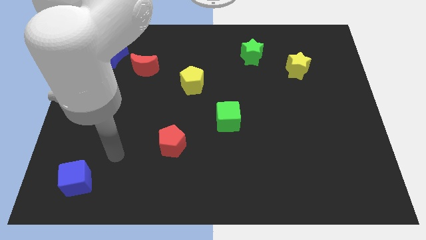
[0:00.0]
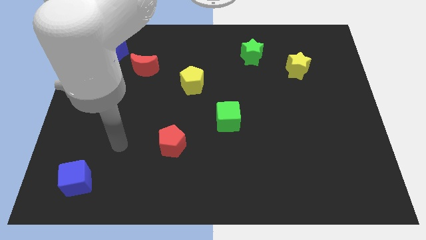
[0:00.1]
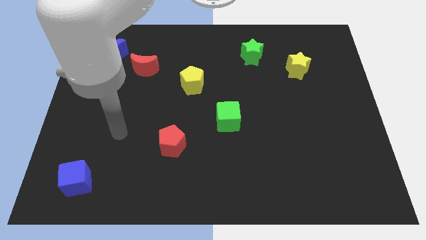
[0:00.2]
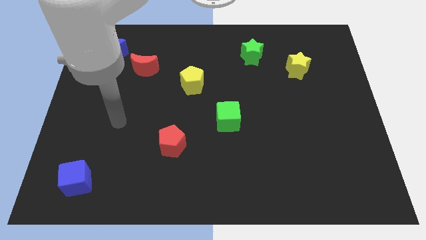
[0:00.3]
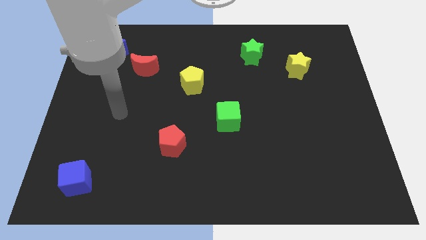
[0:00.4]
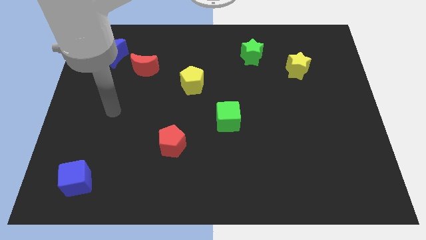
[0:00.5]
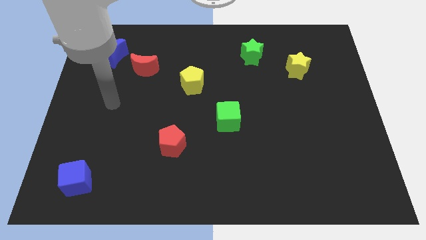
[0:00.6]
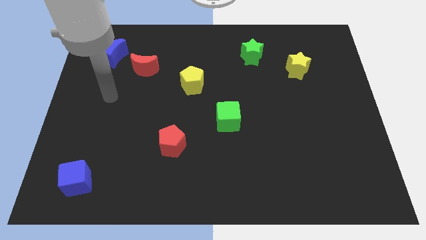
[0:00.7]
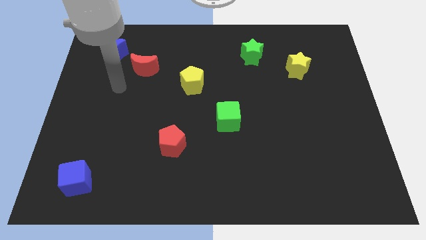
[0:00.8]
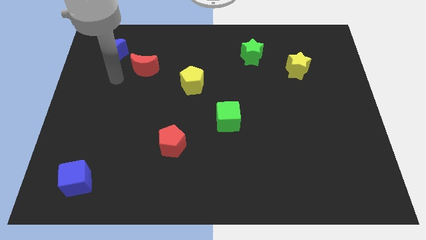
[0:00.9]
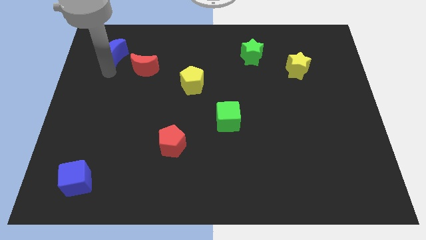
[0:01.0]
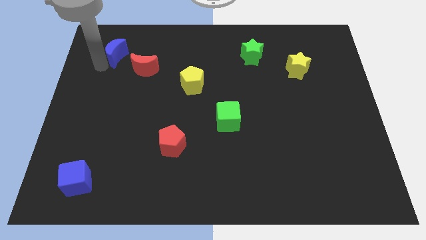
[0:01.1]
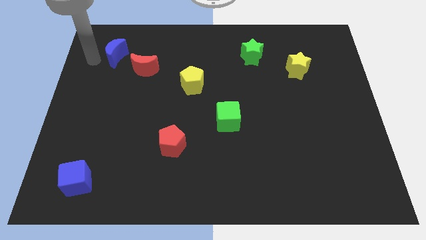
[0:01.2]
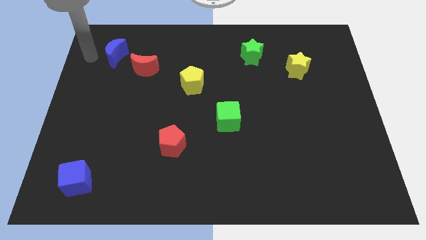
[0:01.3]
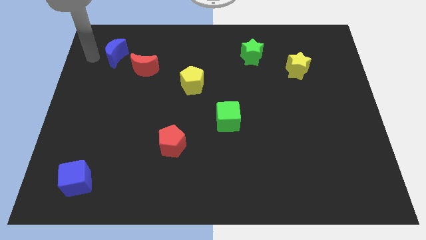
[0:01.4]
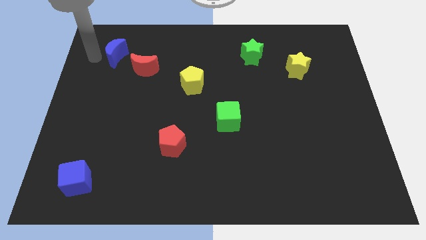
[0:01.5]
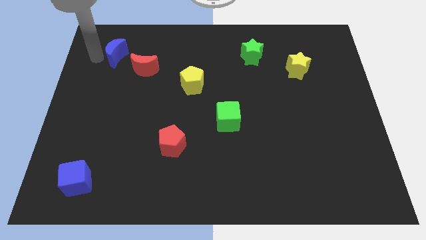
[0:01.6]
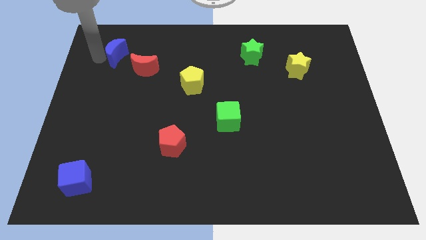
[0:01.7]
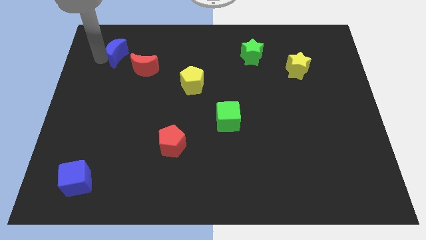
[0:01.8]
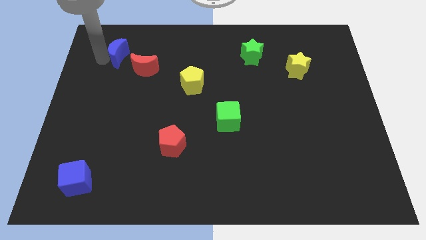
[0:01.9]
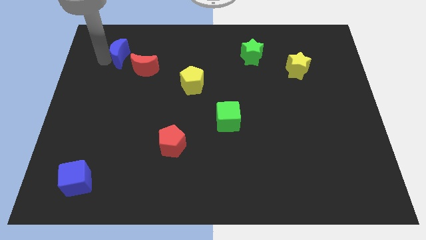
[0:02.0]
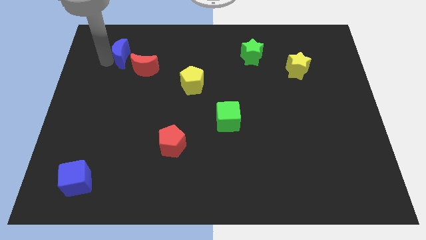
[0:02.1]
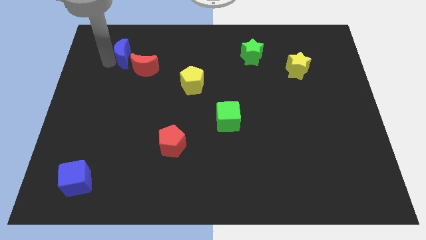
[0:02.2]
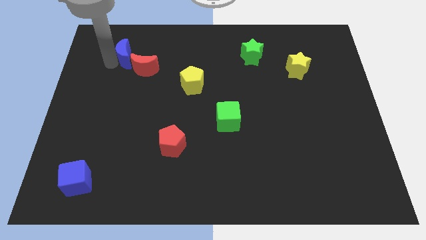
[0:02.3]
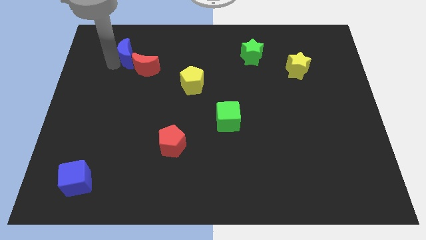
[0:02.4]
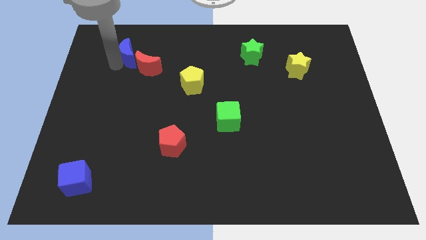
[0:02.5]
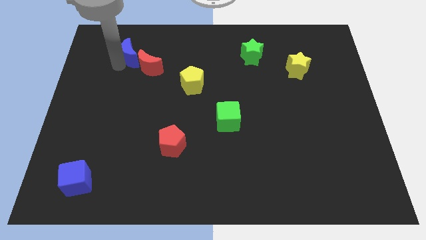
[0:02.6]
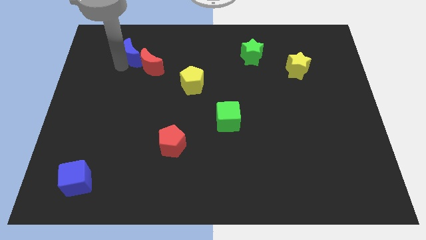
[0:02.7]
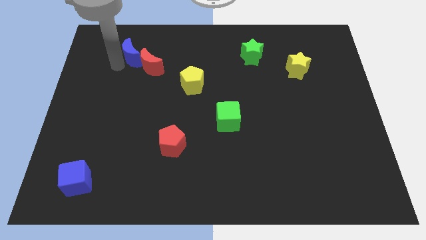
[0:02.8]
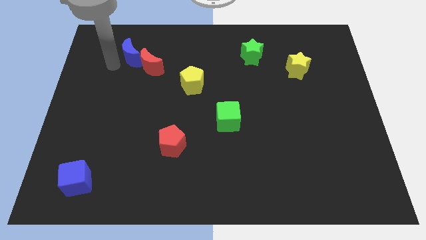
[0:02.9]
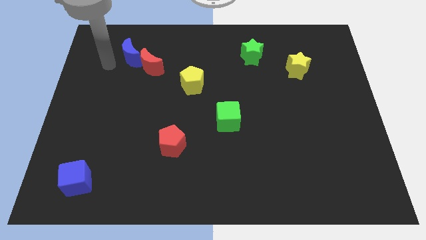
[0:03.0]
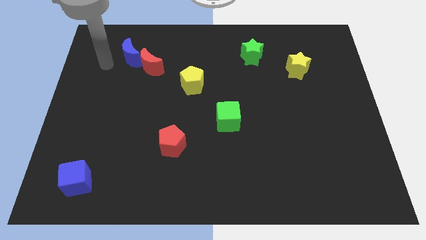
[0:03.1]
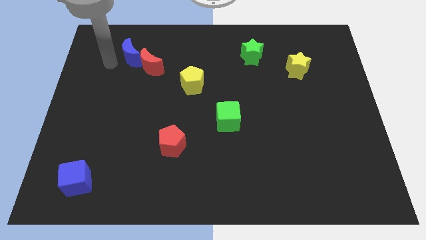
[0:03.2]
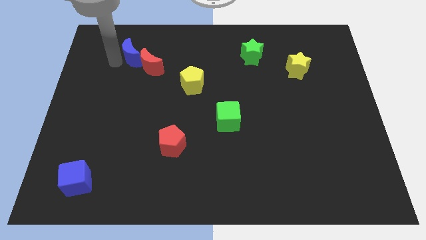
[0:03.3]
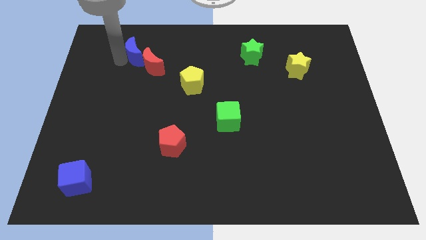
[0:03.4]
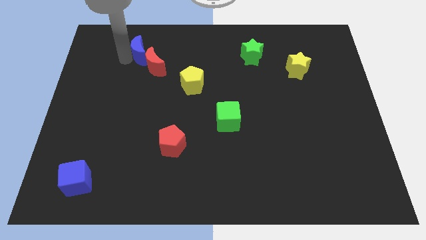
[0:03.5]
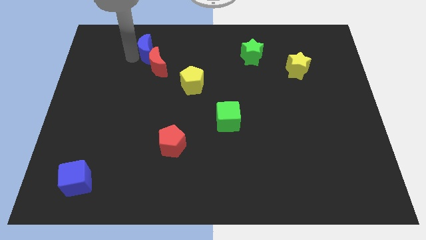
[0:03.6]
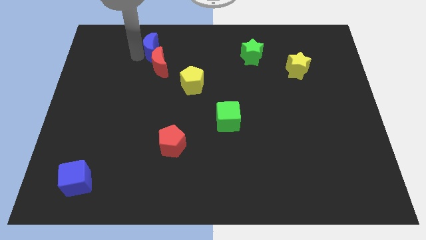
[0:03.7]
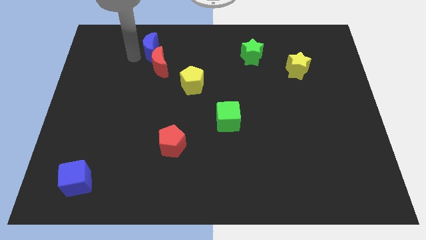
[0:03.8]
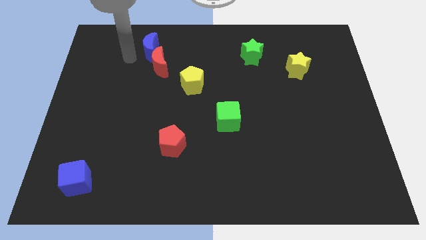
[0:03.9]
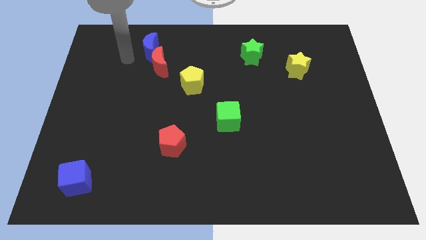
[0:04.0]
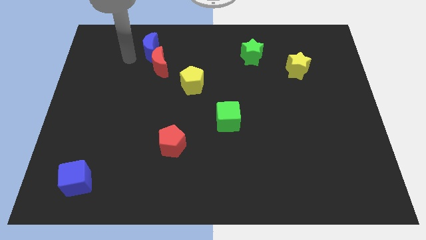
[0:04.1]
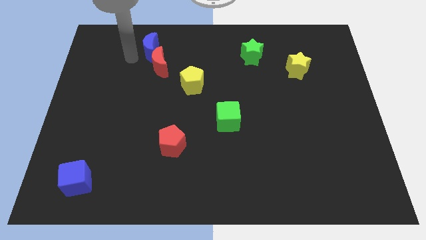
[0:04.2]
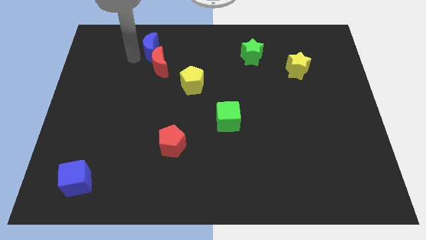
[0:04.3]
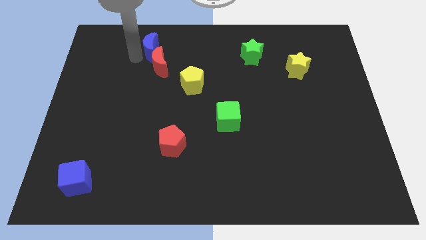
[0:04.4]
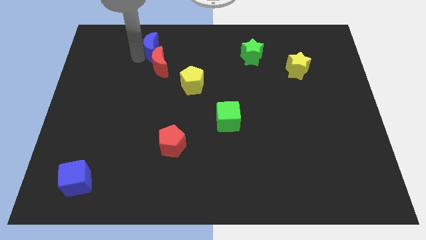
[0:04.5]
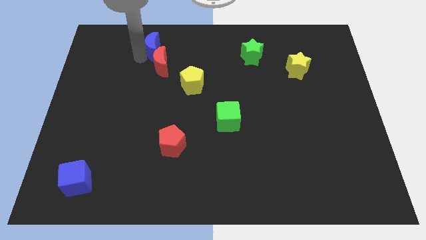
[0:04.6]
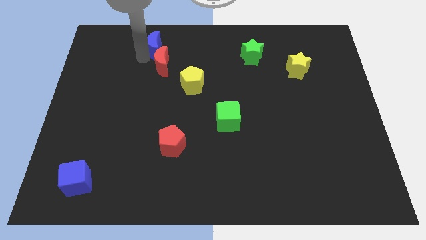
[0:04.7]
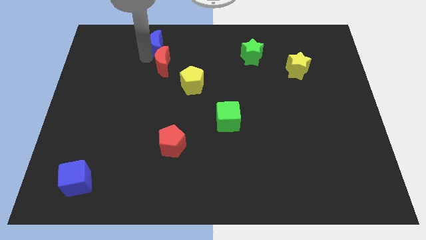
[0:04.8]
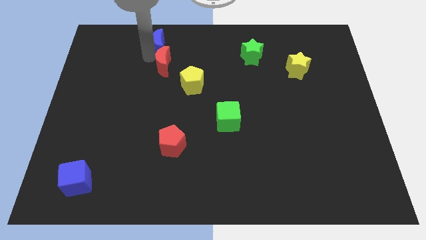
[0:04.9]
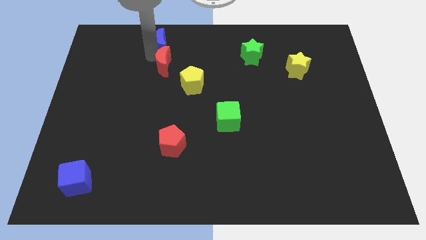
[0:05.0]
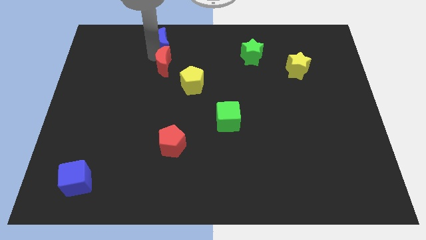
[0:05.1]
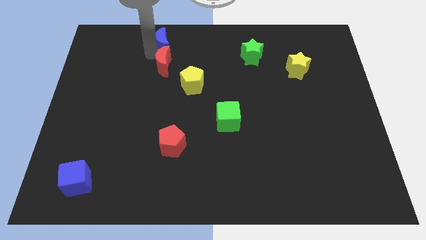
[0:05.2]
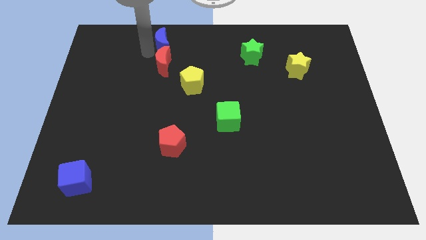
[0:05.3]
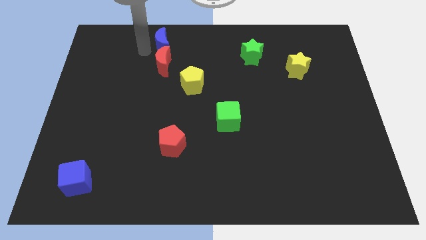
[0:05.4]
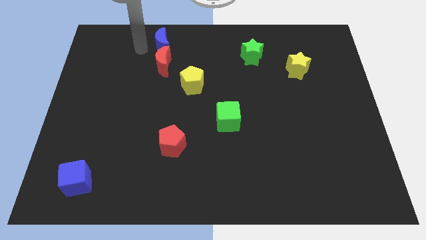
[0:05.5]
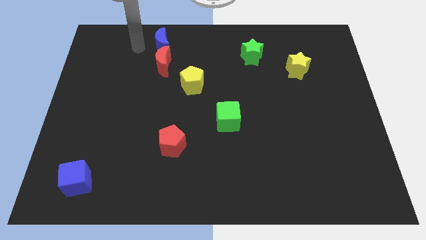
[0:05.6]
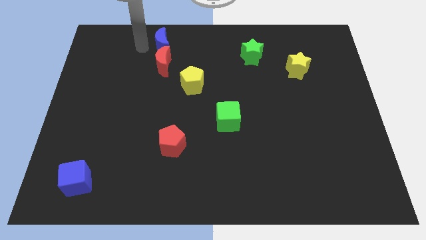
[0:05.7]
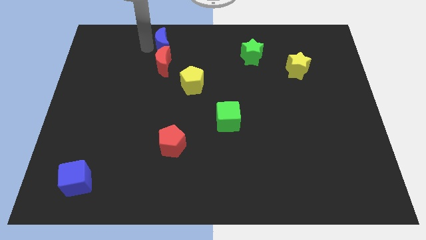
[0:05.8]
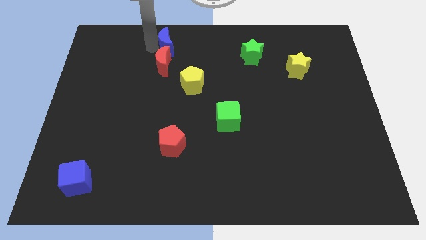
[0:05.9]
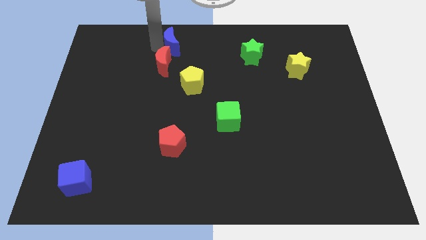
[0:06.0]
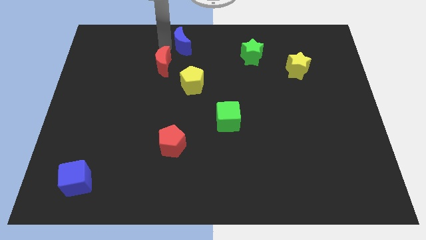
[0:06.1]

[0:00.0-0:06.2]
put the blue moon to the top
